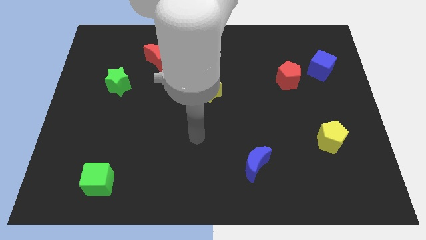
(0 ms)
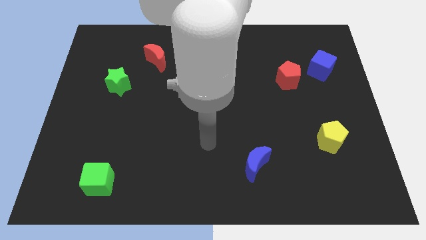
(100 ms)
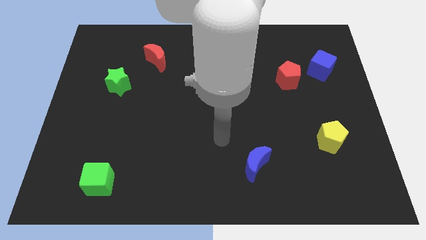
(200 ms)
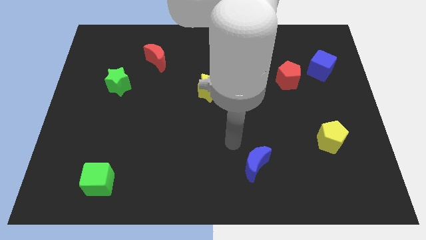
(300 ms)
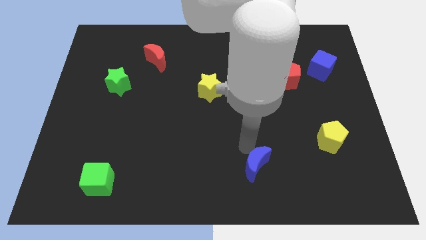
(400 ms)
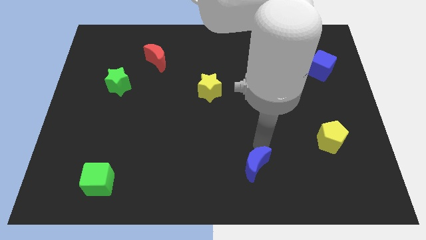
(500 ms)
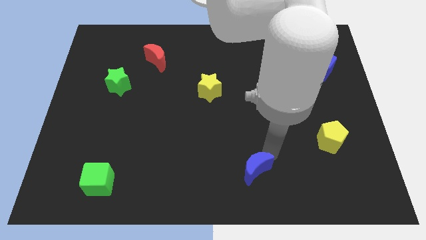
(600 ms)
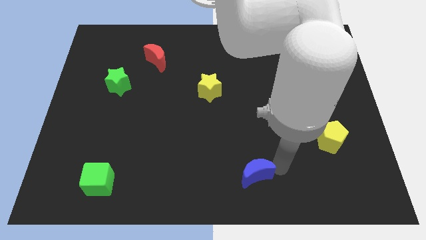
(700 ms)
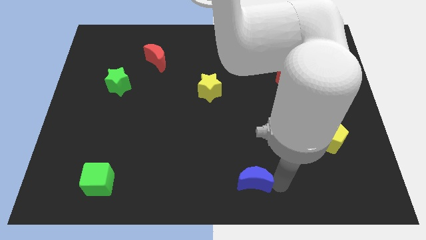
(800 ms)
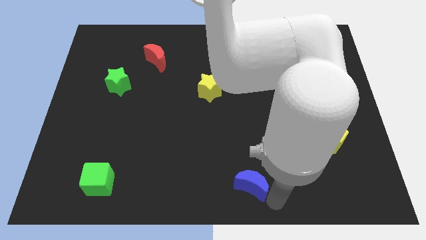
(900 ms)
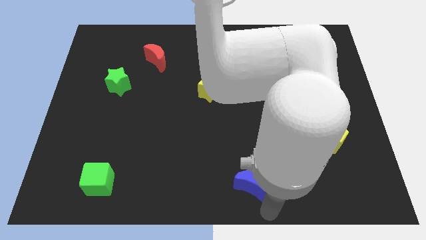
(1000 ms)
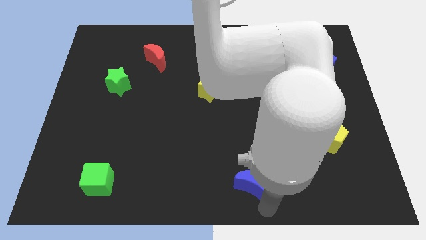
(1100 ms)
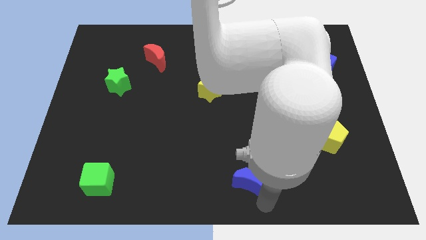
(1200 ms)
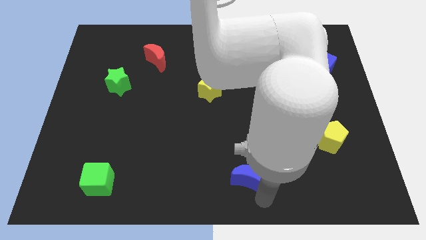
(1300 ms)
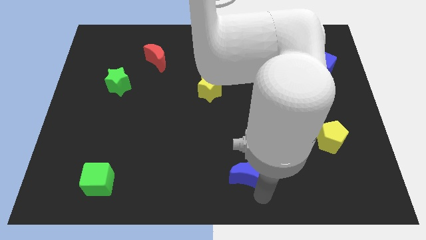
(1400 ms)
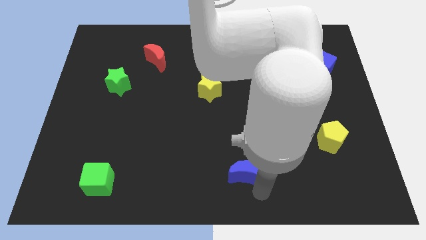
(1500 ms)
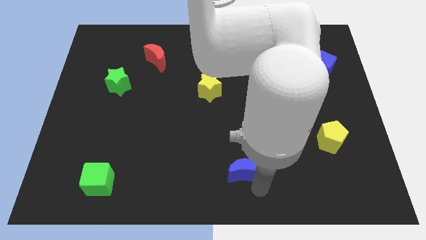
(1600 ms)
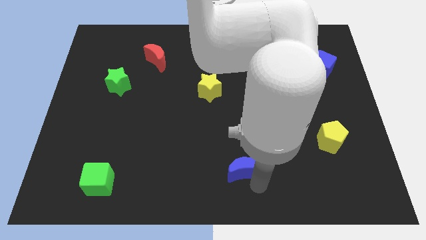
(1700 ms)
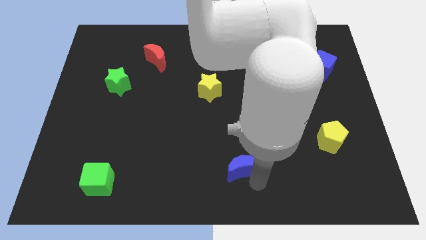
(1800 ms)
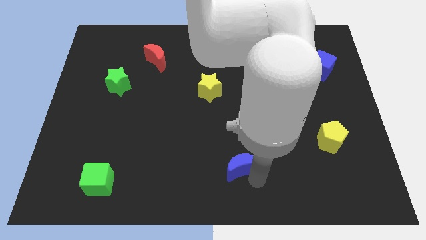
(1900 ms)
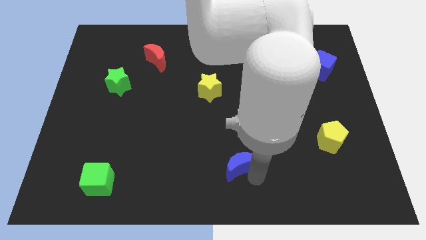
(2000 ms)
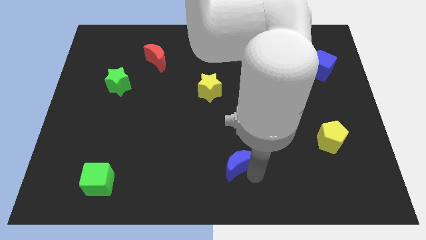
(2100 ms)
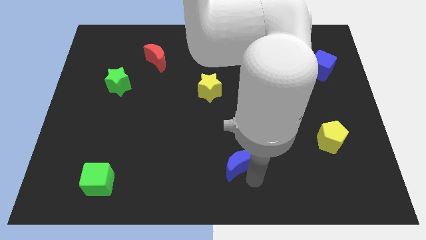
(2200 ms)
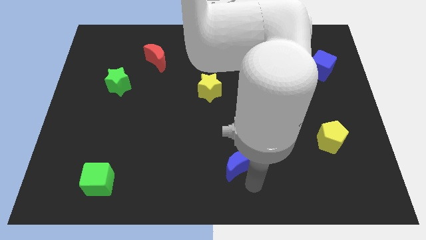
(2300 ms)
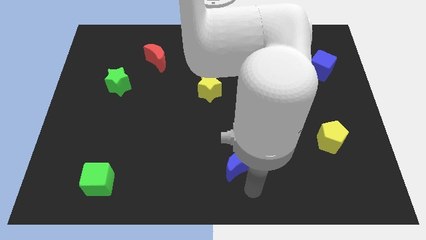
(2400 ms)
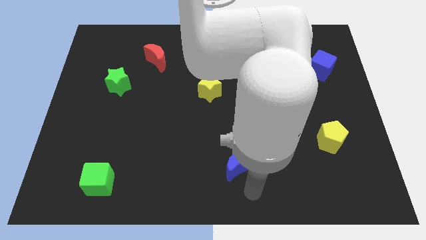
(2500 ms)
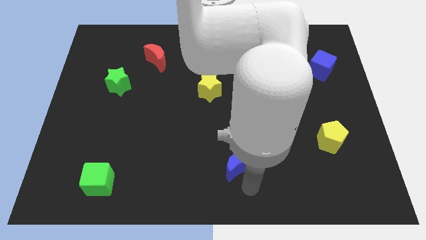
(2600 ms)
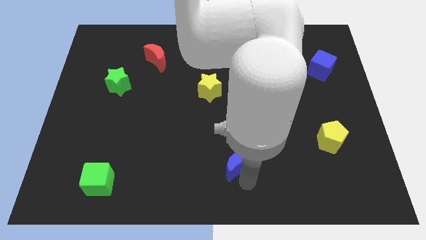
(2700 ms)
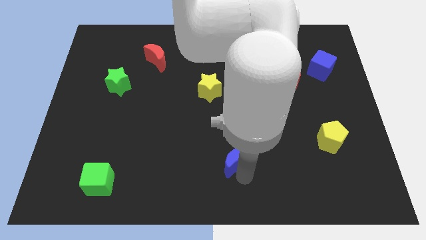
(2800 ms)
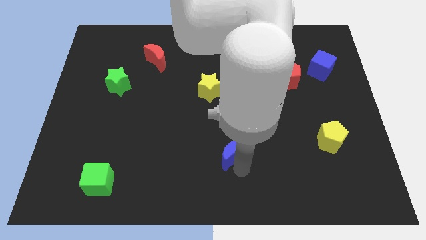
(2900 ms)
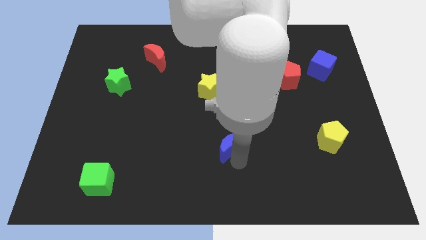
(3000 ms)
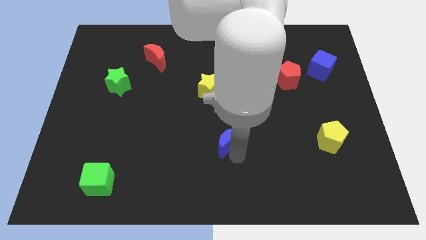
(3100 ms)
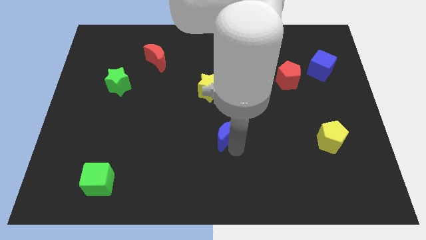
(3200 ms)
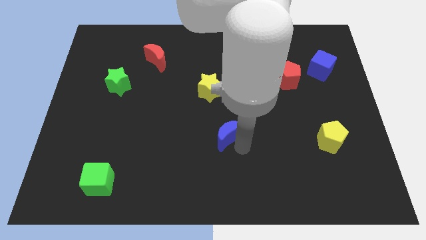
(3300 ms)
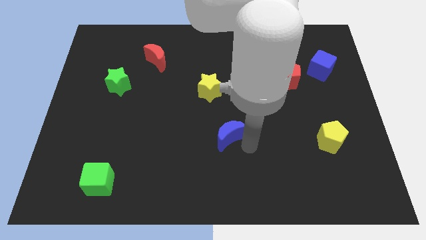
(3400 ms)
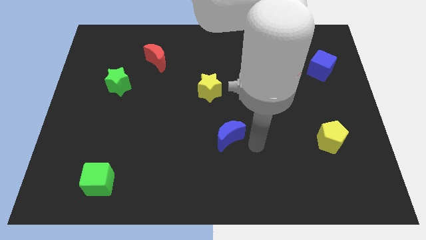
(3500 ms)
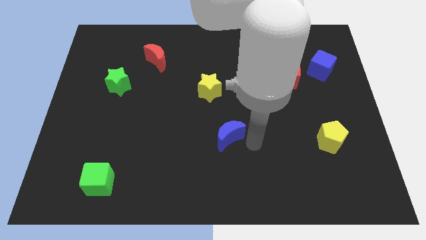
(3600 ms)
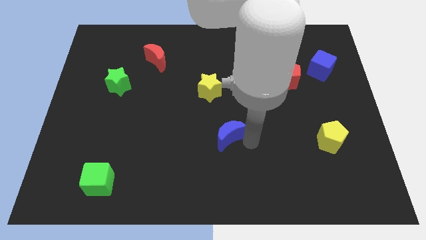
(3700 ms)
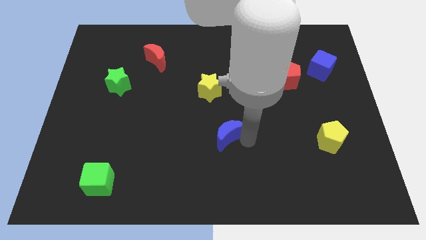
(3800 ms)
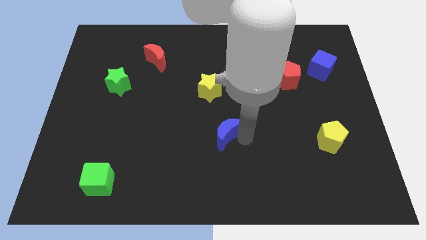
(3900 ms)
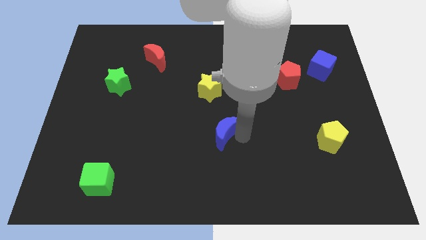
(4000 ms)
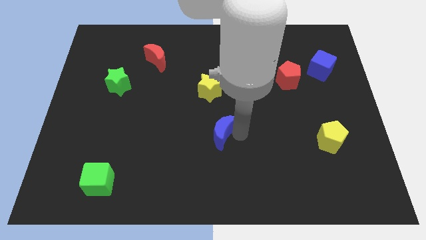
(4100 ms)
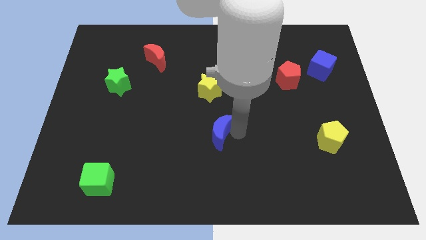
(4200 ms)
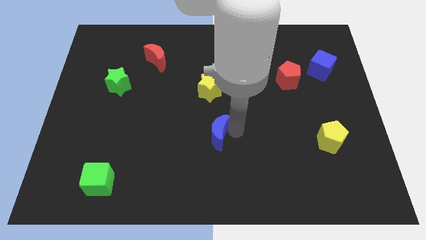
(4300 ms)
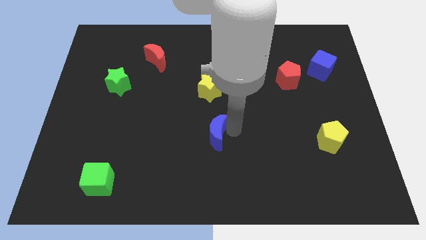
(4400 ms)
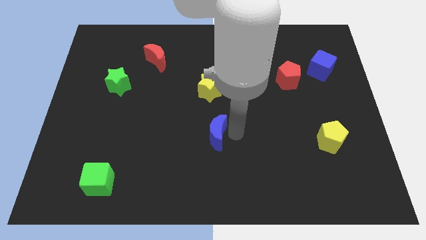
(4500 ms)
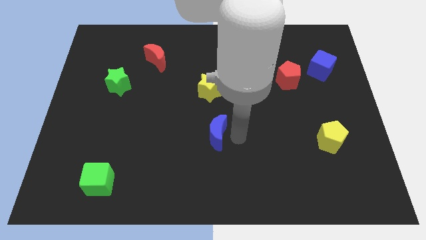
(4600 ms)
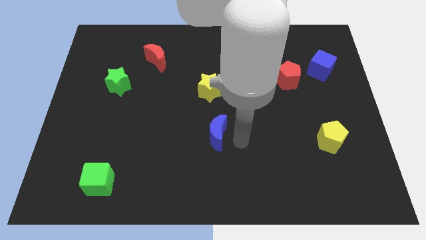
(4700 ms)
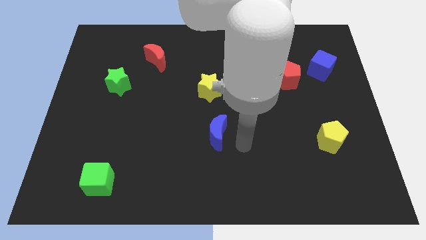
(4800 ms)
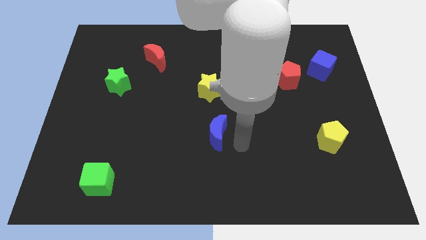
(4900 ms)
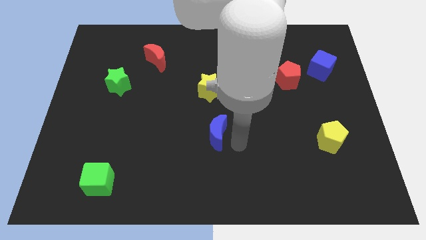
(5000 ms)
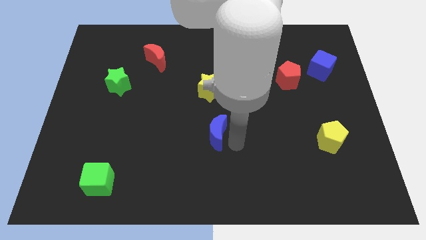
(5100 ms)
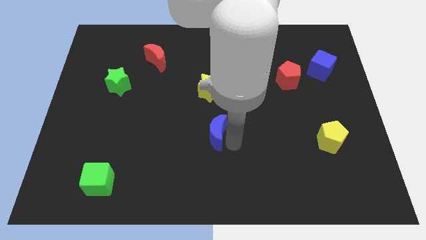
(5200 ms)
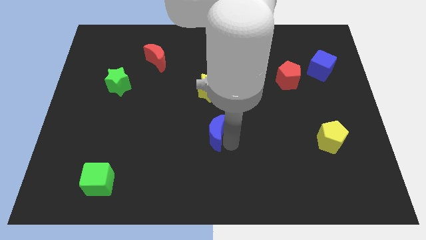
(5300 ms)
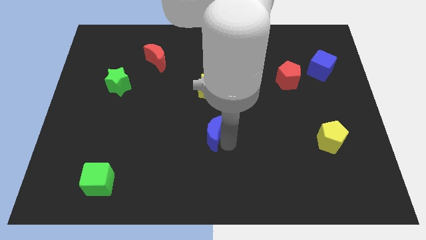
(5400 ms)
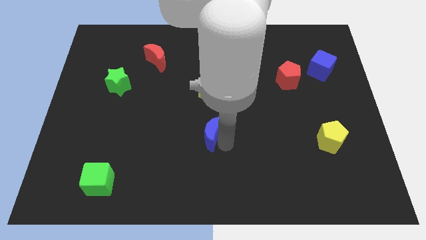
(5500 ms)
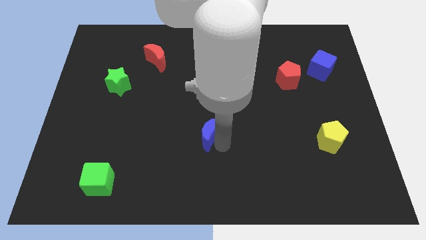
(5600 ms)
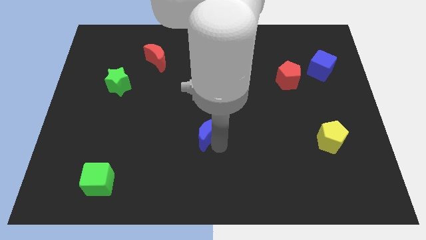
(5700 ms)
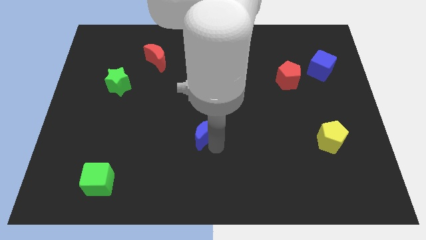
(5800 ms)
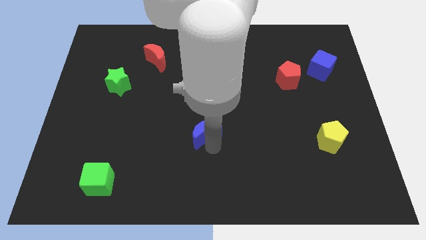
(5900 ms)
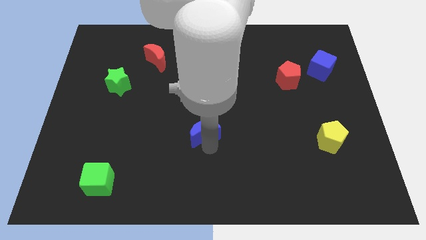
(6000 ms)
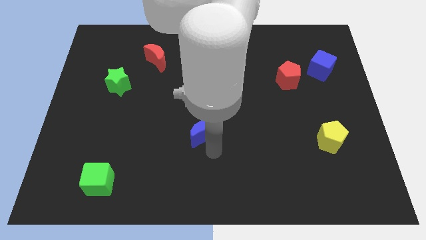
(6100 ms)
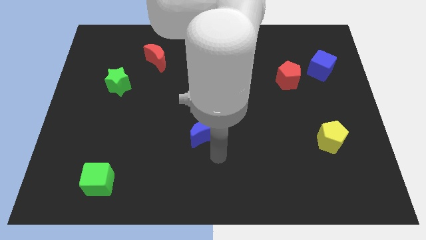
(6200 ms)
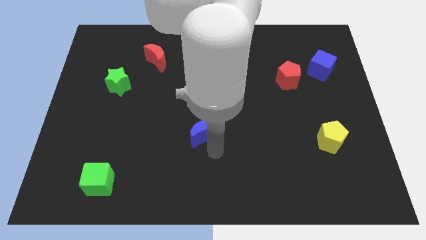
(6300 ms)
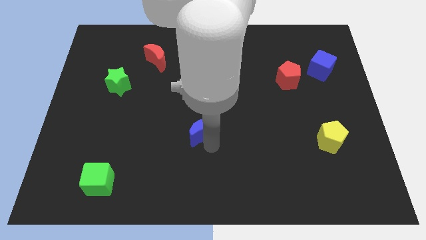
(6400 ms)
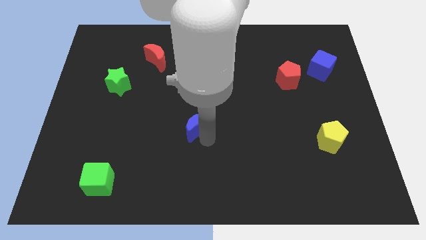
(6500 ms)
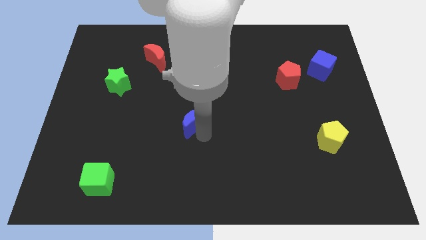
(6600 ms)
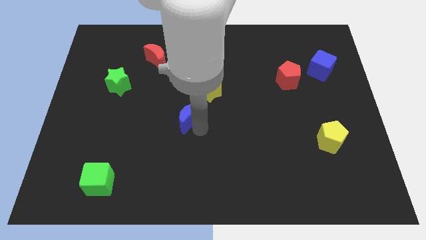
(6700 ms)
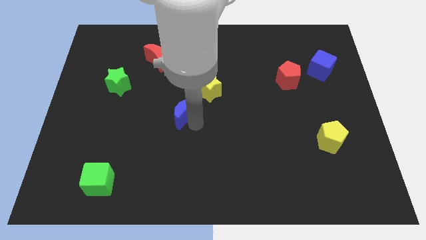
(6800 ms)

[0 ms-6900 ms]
move the blue moon upwards and to the left

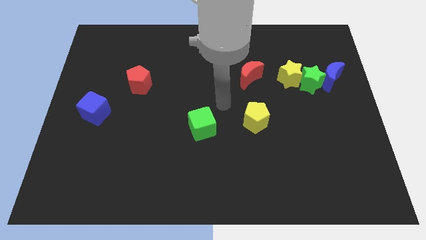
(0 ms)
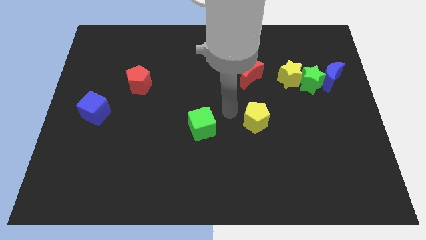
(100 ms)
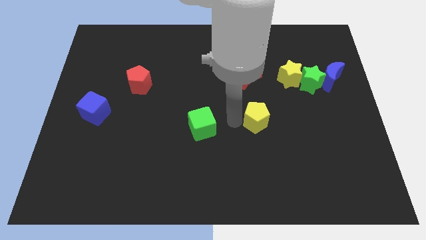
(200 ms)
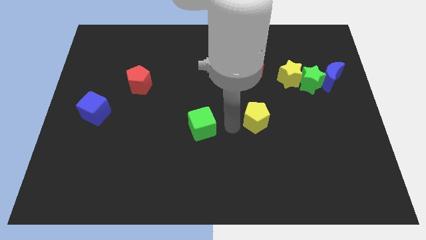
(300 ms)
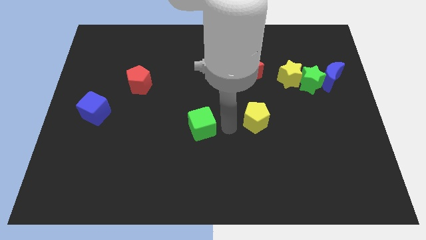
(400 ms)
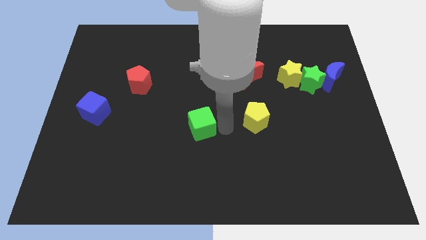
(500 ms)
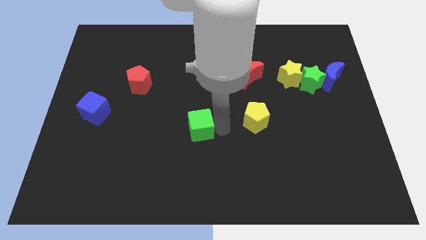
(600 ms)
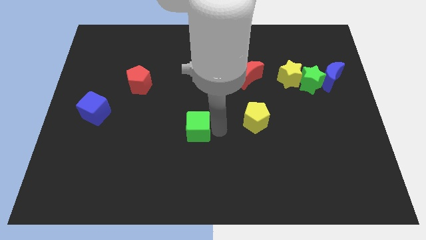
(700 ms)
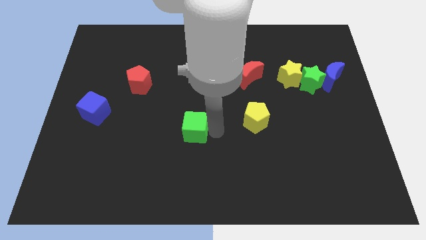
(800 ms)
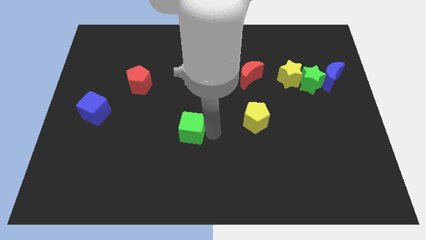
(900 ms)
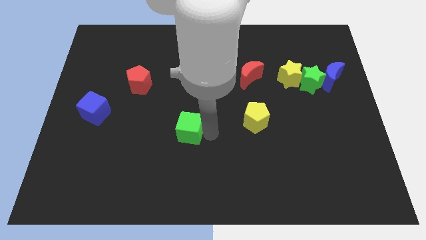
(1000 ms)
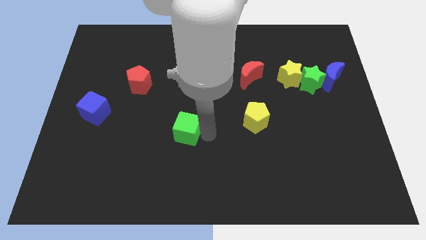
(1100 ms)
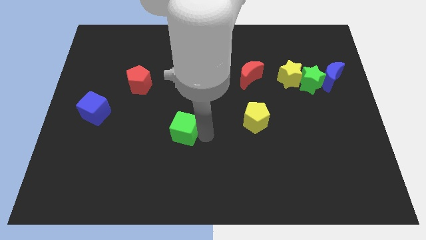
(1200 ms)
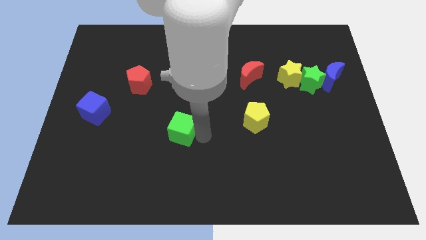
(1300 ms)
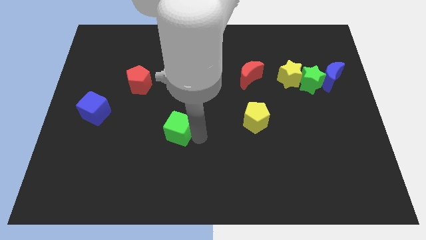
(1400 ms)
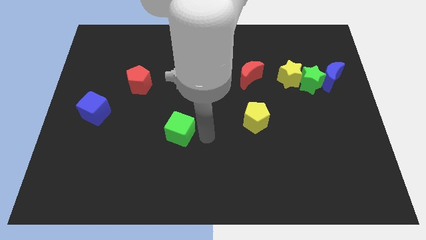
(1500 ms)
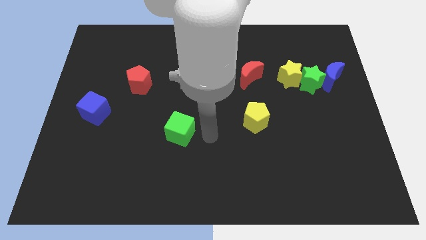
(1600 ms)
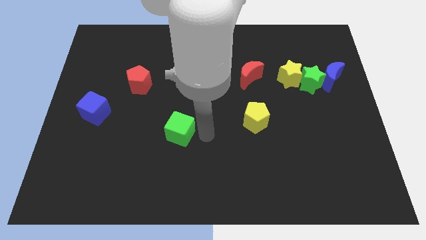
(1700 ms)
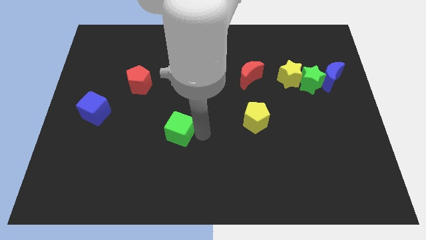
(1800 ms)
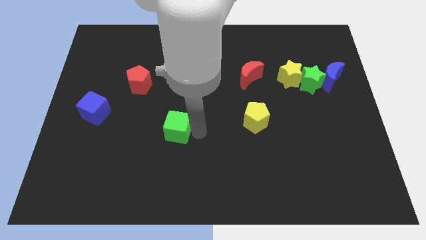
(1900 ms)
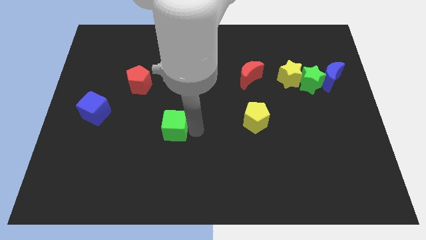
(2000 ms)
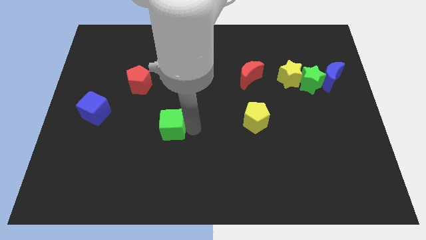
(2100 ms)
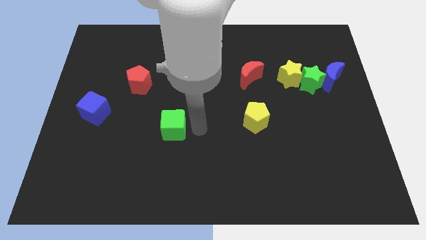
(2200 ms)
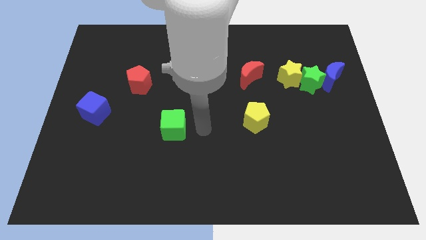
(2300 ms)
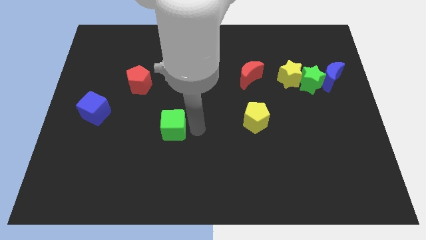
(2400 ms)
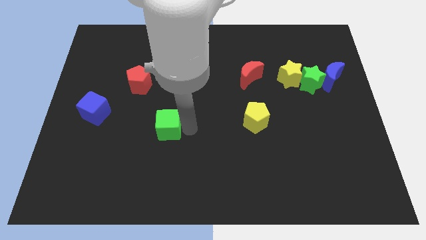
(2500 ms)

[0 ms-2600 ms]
slightly push the green cube to the left
